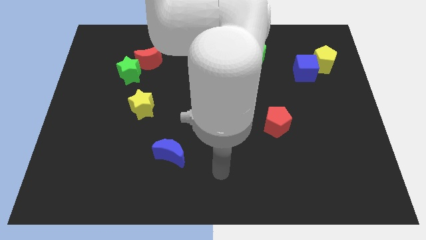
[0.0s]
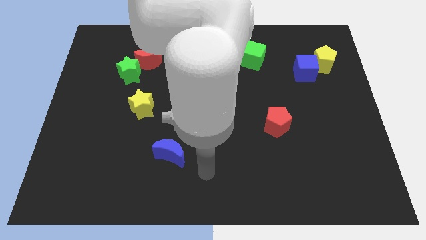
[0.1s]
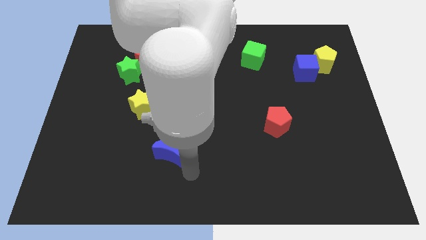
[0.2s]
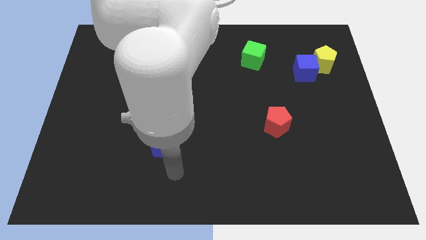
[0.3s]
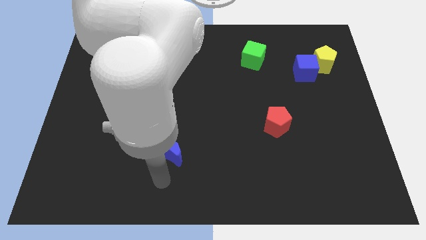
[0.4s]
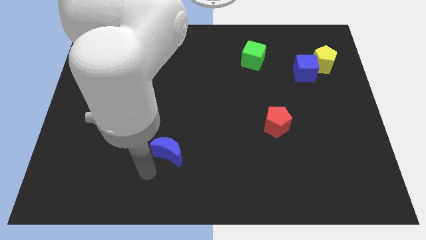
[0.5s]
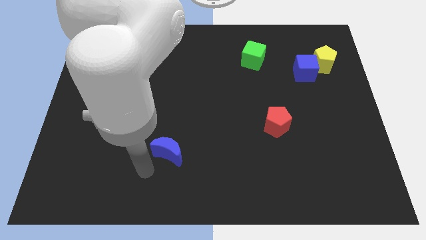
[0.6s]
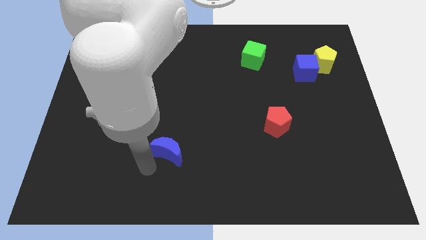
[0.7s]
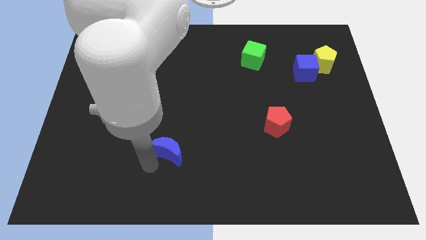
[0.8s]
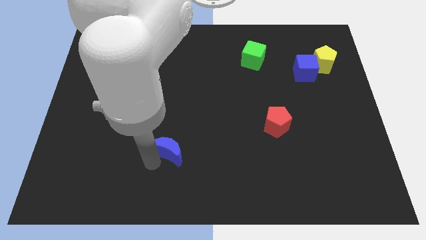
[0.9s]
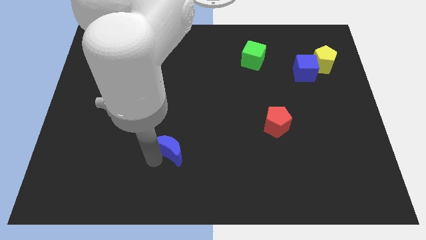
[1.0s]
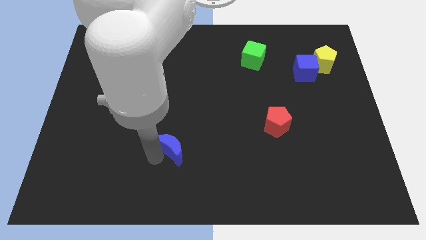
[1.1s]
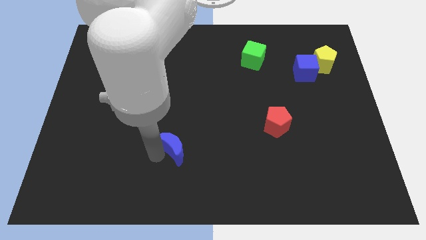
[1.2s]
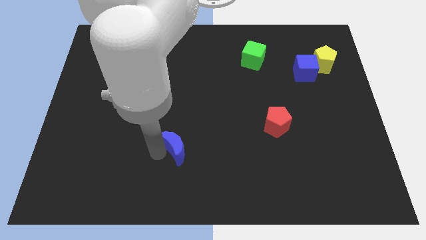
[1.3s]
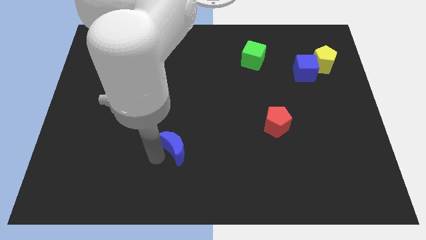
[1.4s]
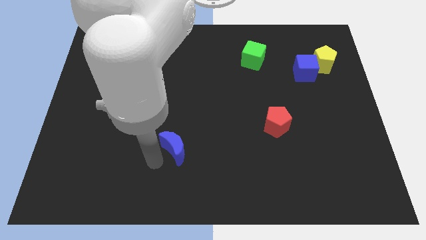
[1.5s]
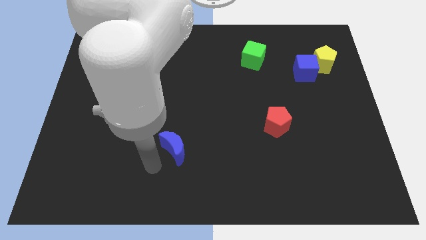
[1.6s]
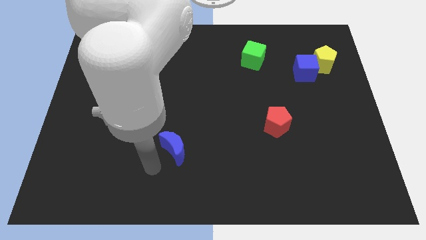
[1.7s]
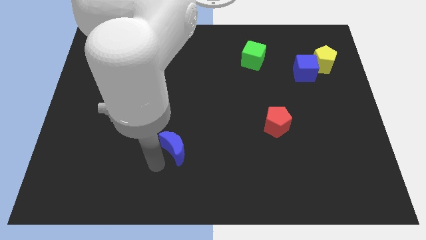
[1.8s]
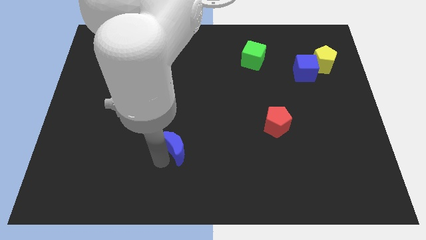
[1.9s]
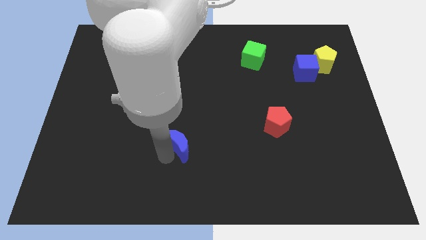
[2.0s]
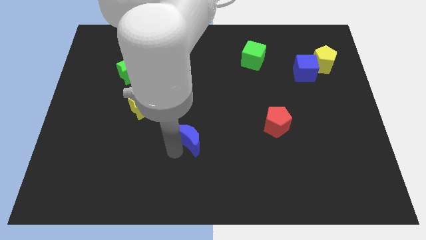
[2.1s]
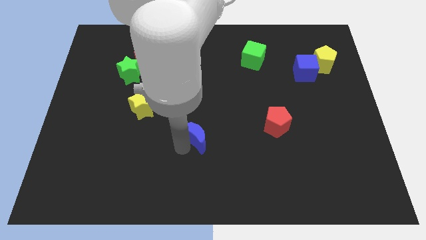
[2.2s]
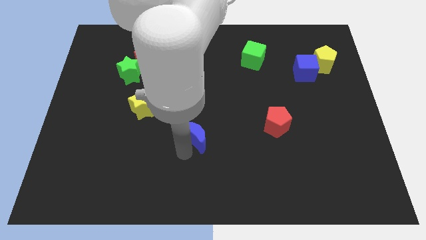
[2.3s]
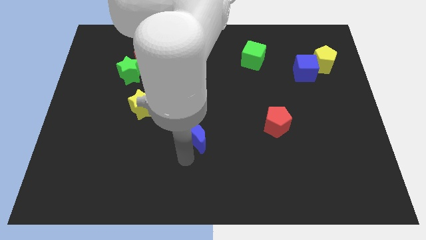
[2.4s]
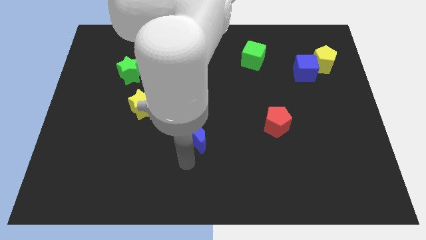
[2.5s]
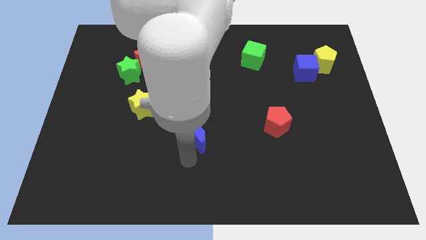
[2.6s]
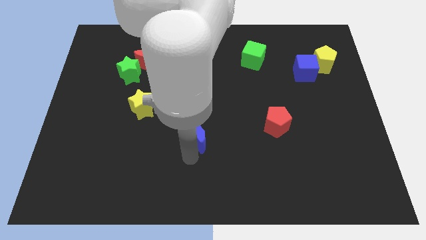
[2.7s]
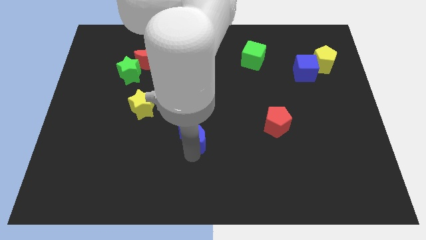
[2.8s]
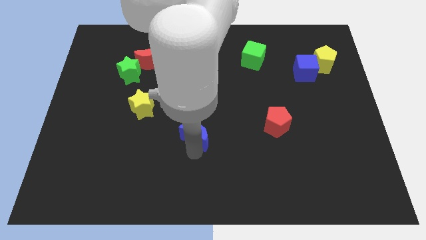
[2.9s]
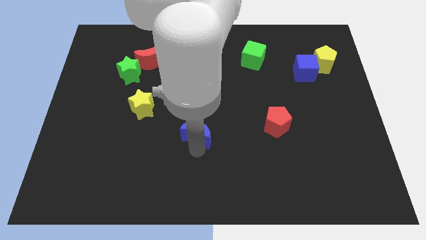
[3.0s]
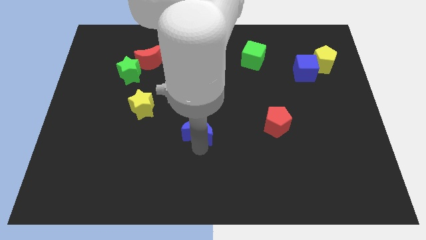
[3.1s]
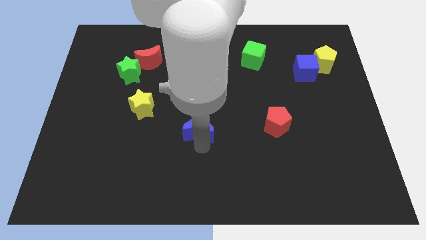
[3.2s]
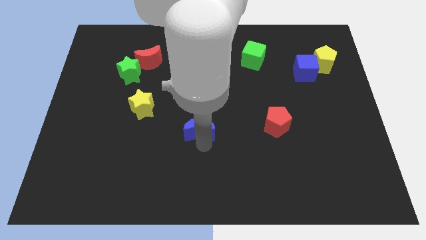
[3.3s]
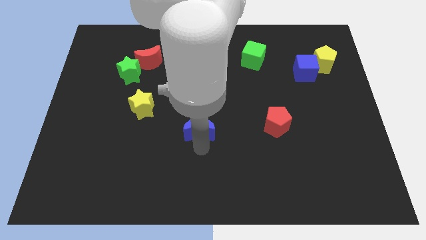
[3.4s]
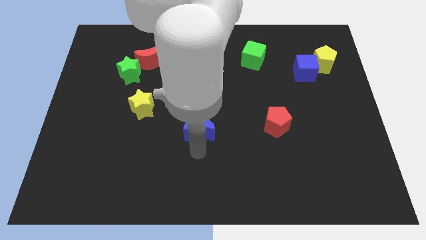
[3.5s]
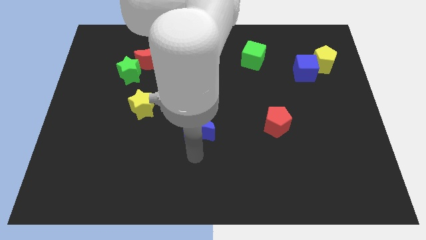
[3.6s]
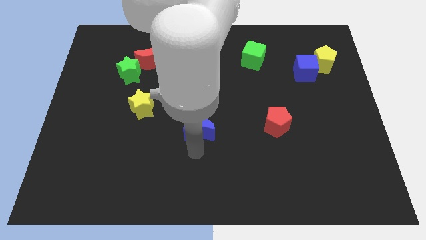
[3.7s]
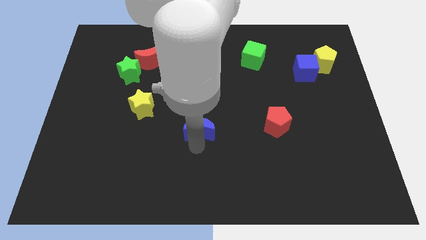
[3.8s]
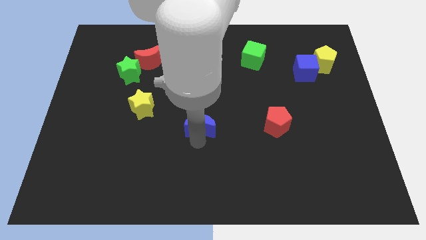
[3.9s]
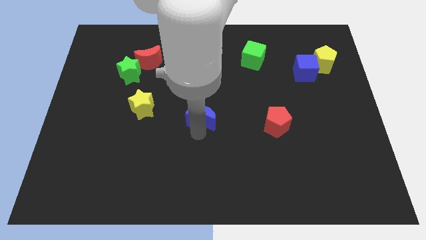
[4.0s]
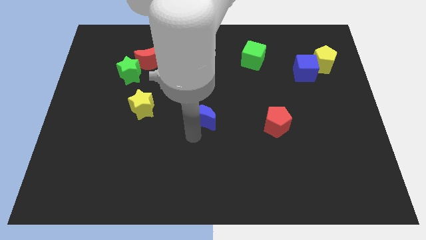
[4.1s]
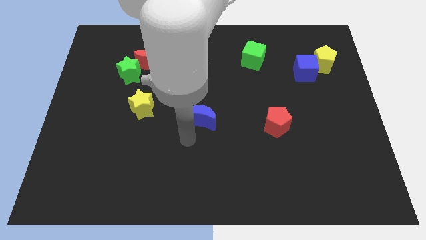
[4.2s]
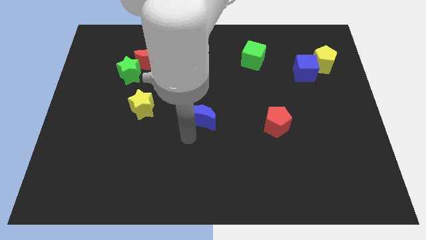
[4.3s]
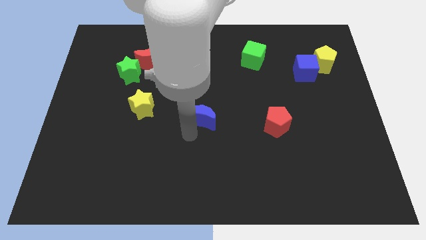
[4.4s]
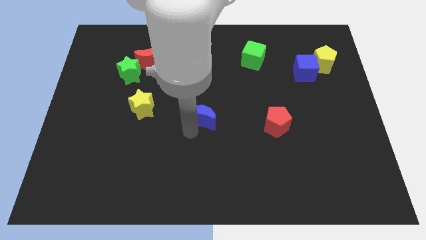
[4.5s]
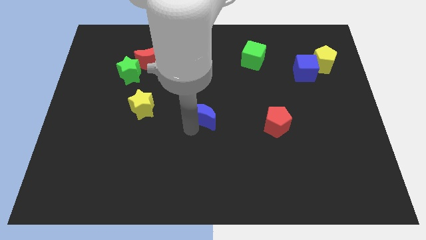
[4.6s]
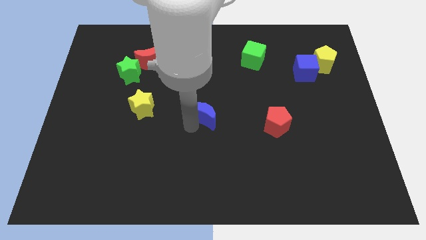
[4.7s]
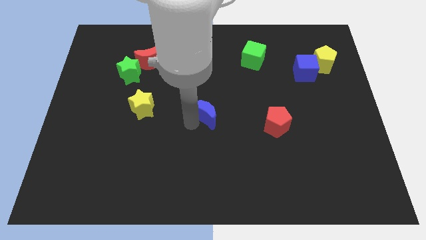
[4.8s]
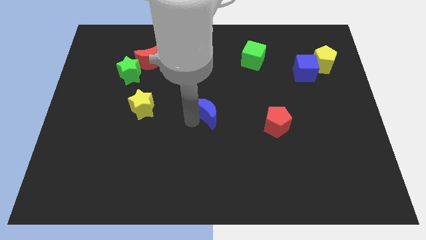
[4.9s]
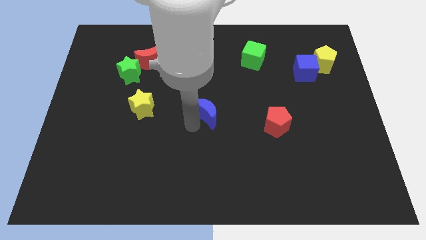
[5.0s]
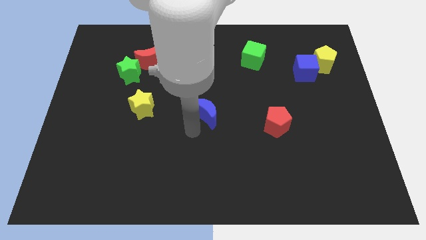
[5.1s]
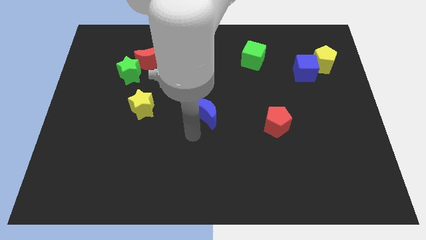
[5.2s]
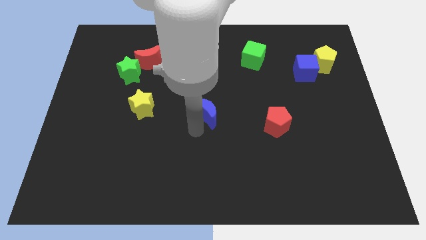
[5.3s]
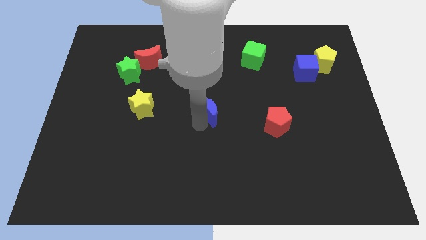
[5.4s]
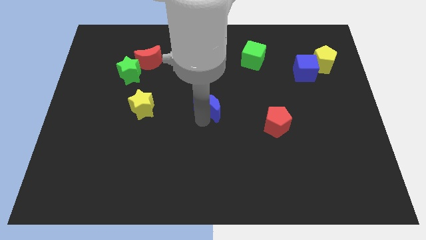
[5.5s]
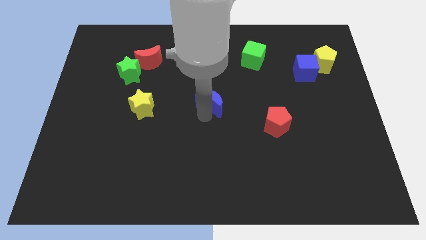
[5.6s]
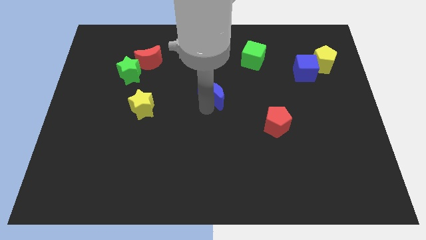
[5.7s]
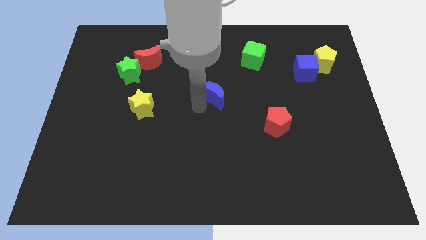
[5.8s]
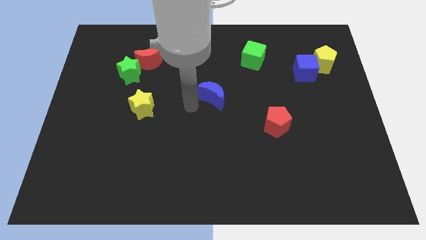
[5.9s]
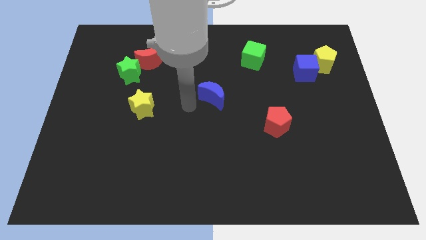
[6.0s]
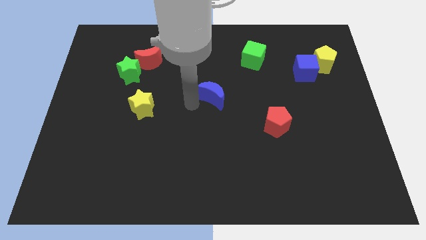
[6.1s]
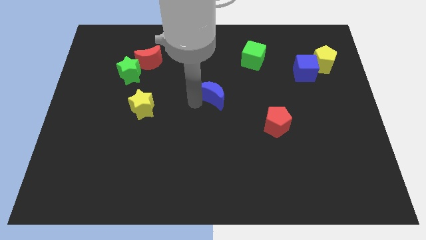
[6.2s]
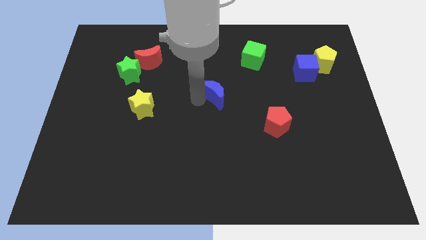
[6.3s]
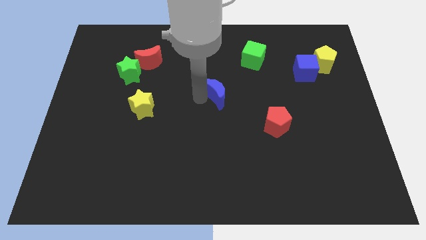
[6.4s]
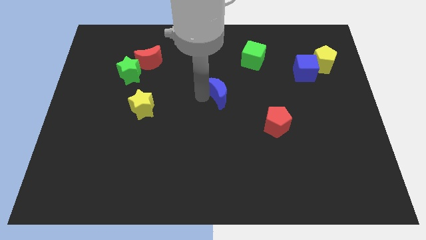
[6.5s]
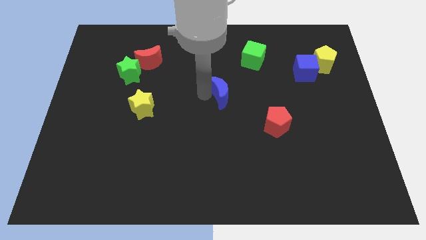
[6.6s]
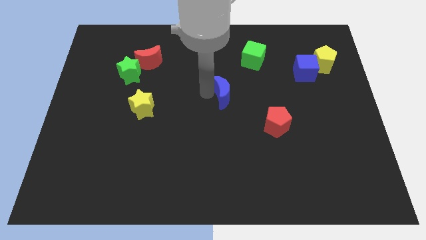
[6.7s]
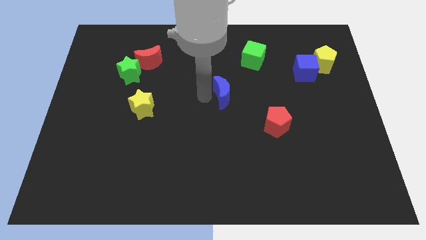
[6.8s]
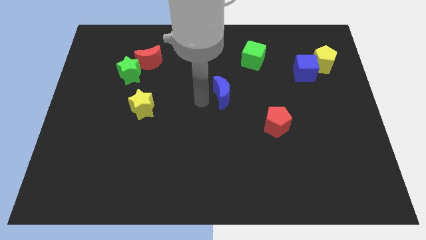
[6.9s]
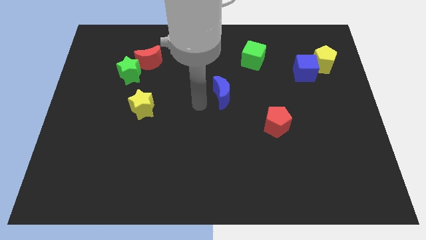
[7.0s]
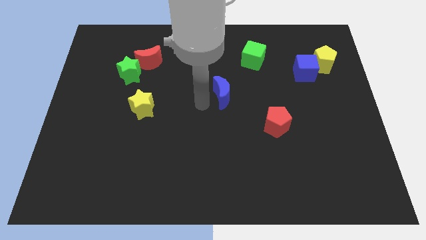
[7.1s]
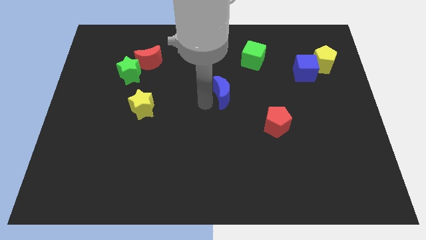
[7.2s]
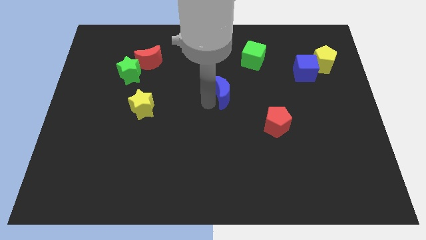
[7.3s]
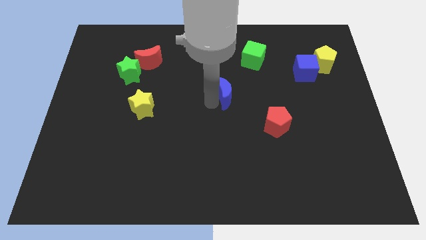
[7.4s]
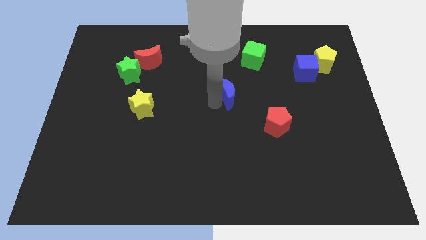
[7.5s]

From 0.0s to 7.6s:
push the blue moon up and right diagonally

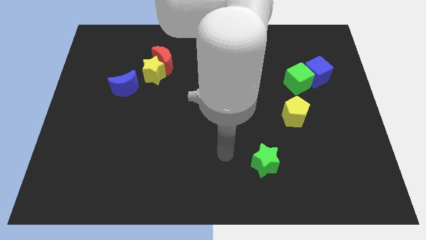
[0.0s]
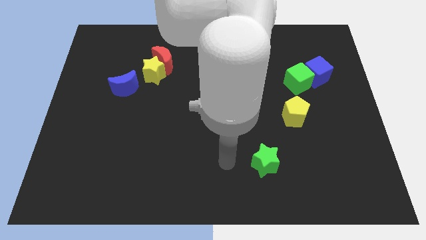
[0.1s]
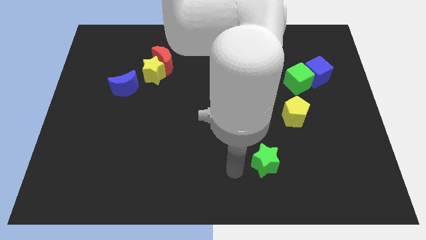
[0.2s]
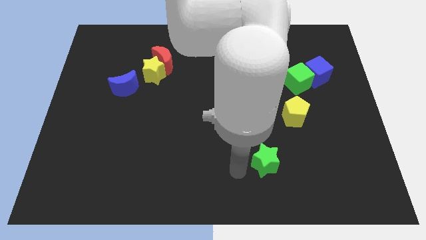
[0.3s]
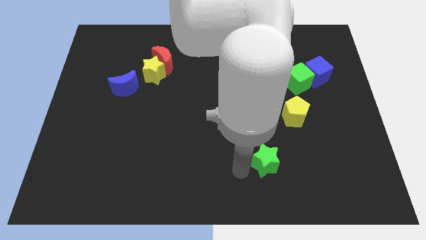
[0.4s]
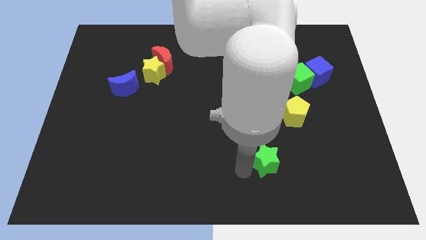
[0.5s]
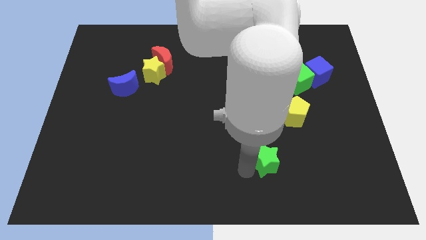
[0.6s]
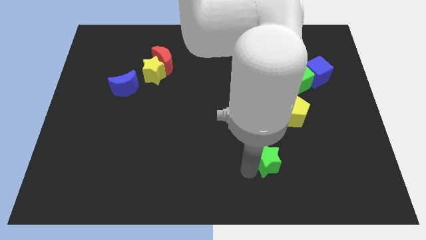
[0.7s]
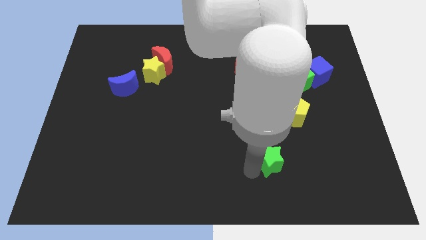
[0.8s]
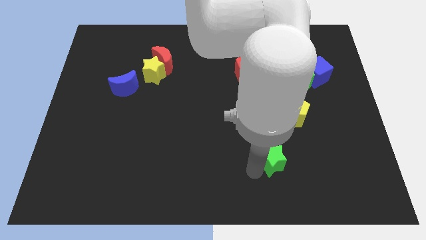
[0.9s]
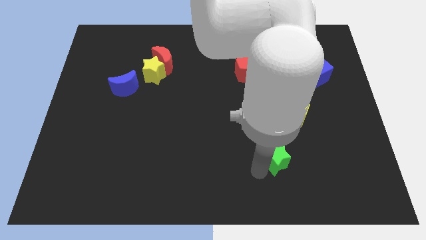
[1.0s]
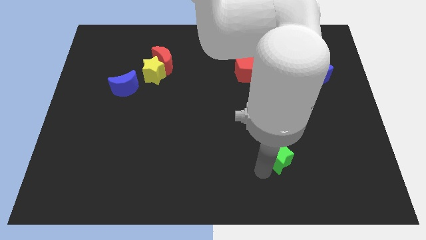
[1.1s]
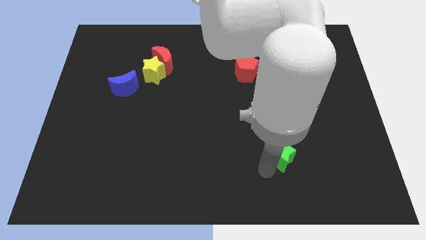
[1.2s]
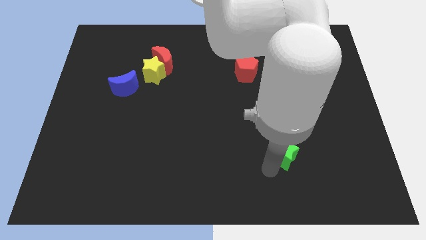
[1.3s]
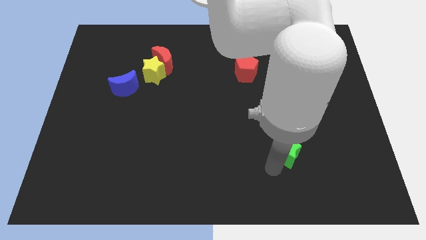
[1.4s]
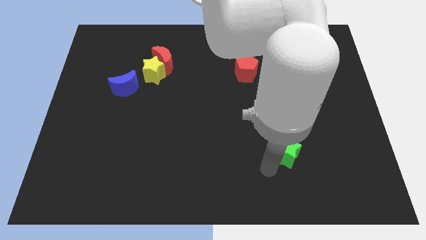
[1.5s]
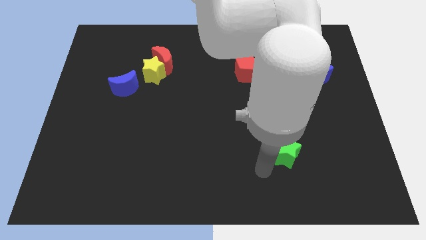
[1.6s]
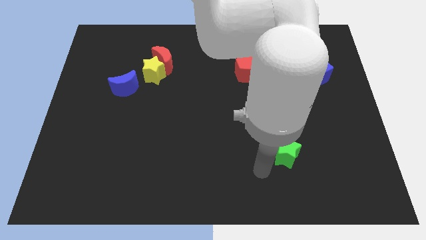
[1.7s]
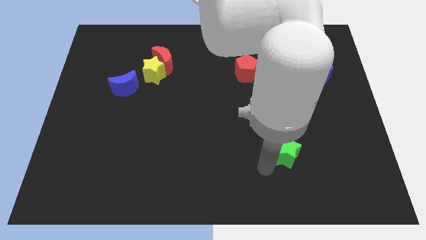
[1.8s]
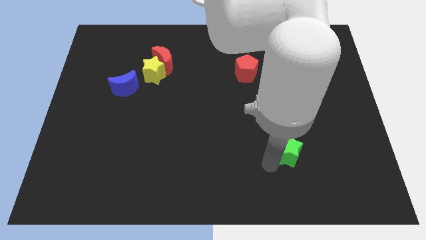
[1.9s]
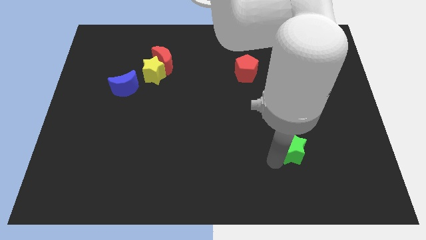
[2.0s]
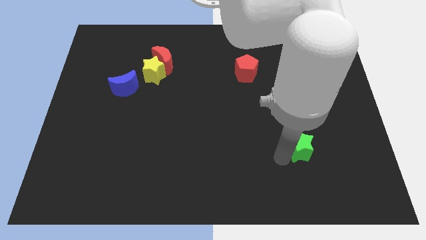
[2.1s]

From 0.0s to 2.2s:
slightly slide the green star up and right
